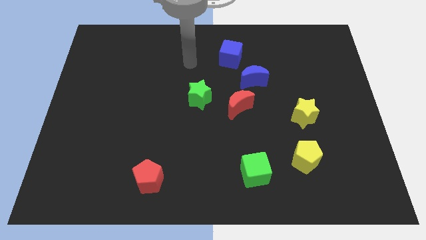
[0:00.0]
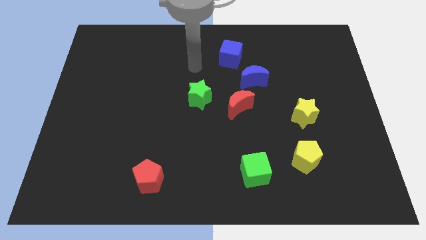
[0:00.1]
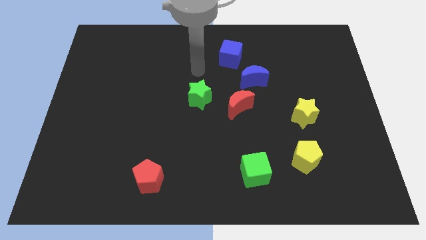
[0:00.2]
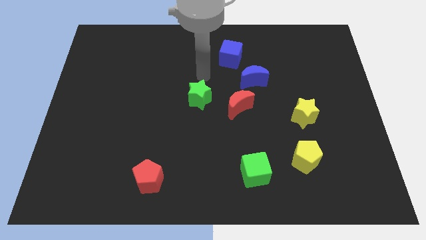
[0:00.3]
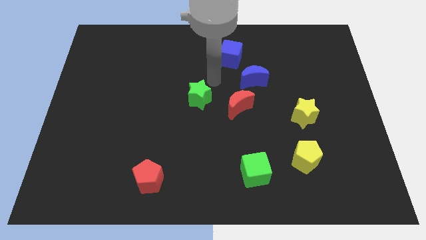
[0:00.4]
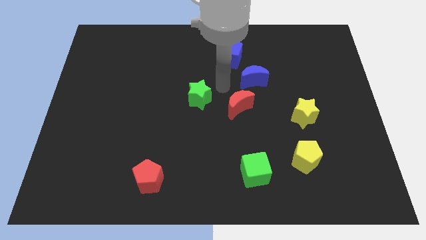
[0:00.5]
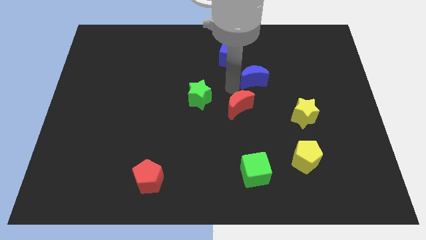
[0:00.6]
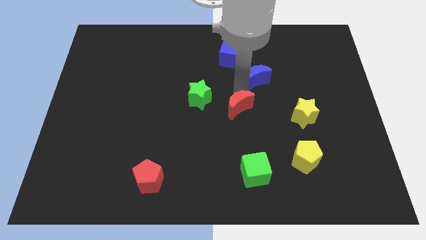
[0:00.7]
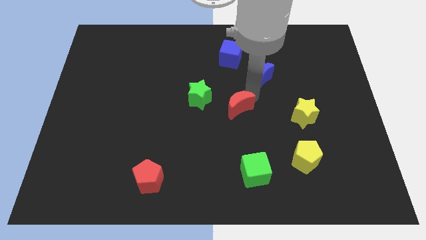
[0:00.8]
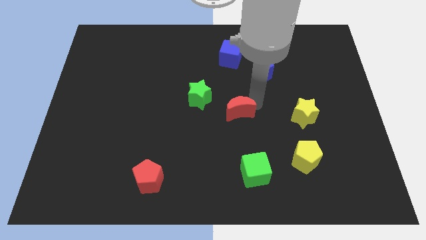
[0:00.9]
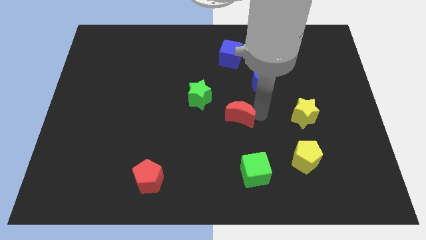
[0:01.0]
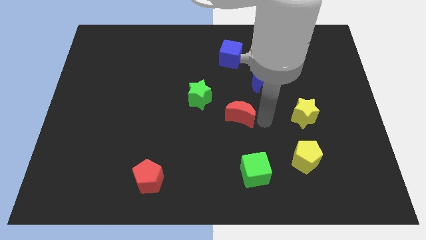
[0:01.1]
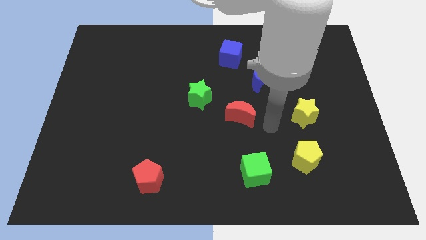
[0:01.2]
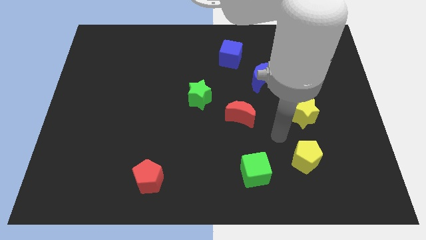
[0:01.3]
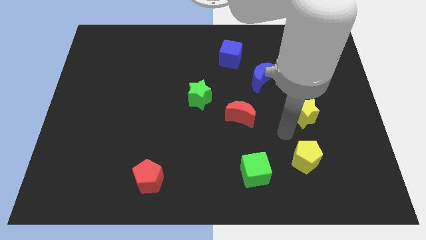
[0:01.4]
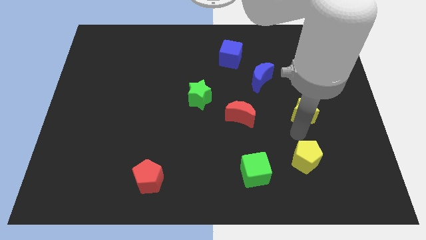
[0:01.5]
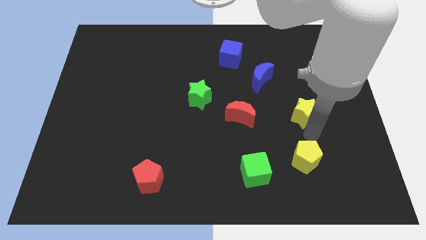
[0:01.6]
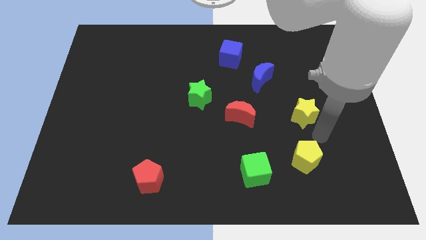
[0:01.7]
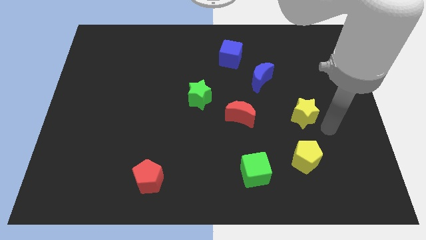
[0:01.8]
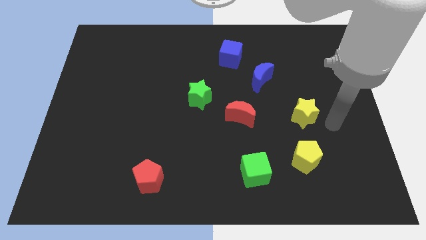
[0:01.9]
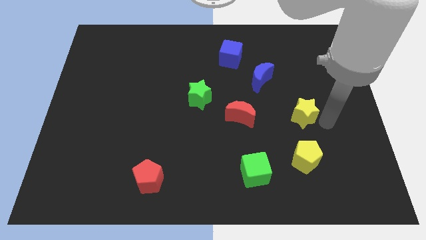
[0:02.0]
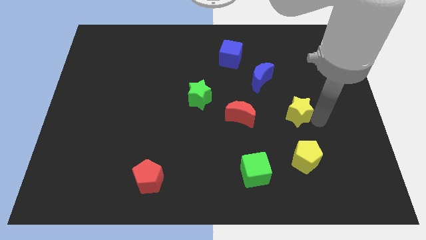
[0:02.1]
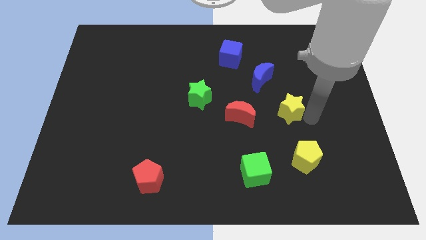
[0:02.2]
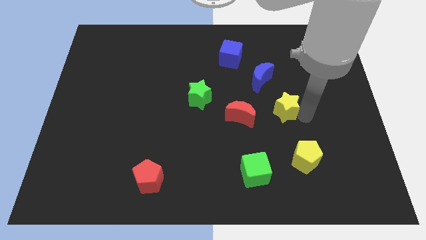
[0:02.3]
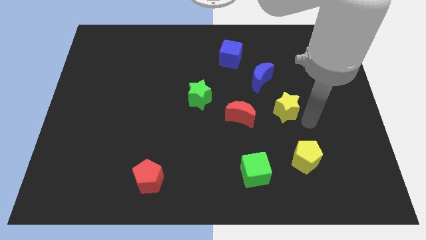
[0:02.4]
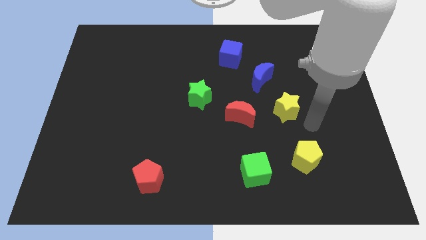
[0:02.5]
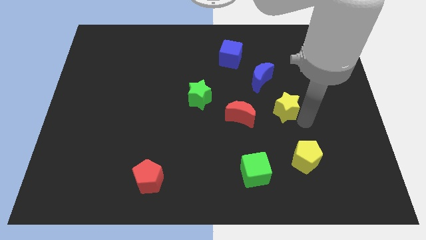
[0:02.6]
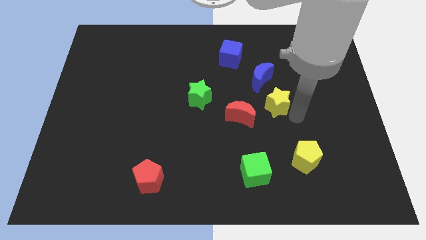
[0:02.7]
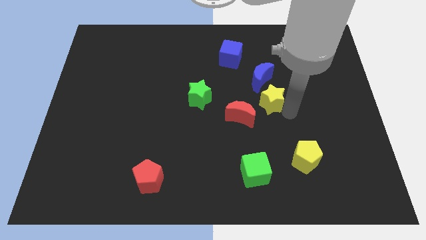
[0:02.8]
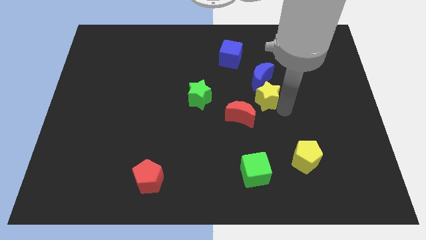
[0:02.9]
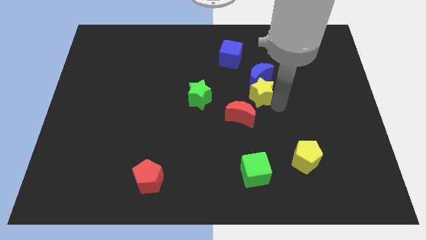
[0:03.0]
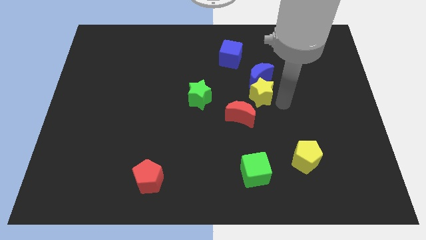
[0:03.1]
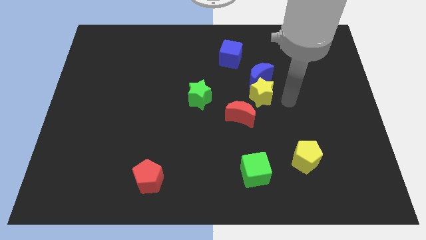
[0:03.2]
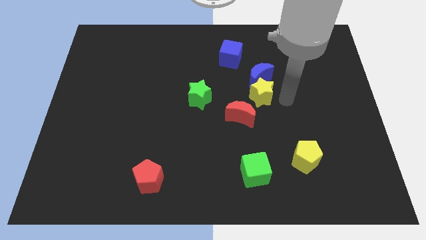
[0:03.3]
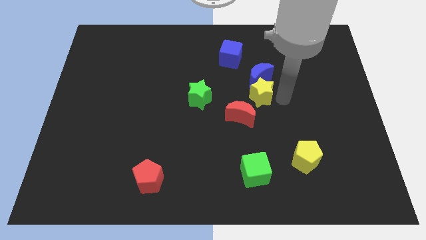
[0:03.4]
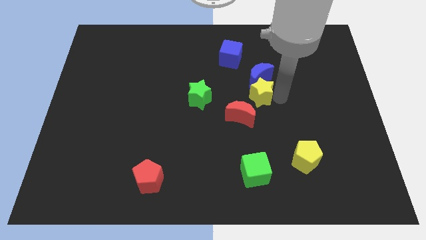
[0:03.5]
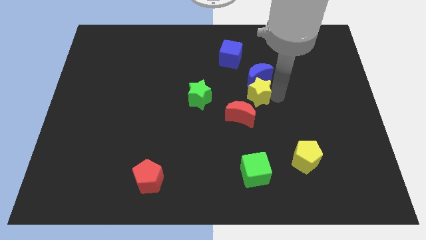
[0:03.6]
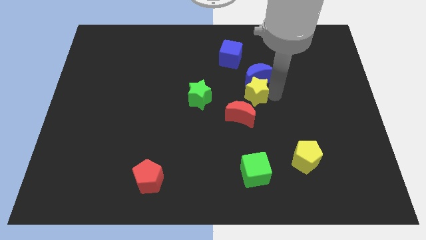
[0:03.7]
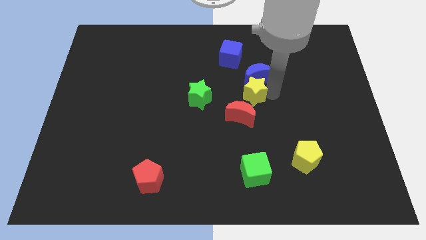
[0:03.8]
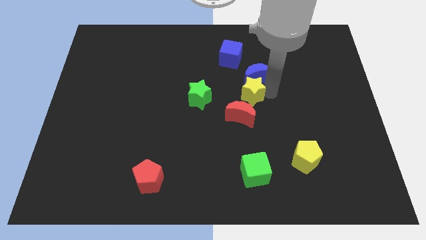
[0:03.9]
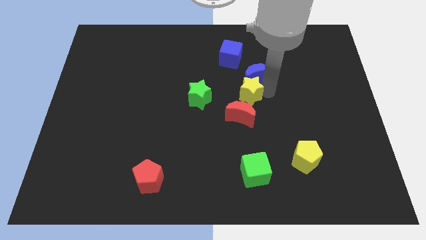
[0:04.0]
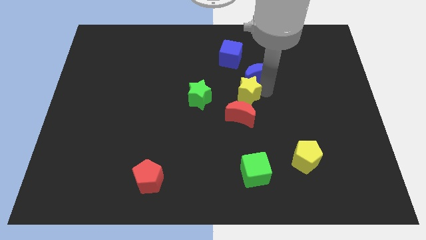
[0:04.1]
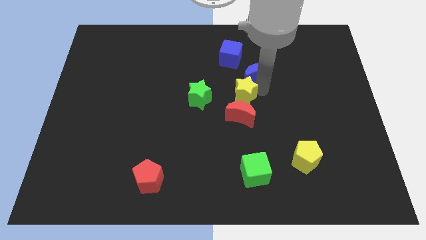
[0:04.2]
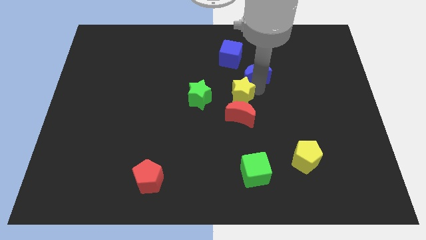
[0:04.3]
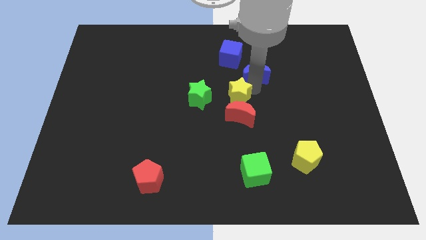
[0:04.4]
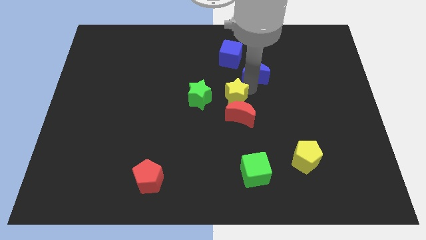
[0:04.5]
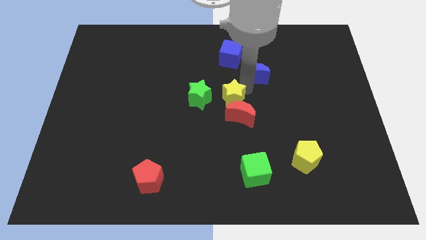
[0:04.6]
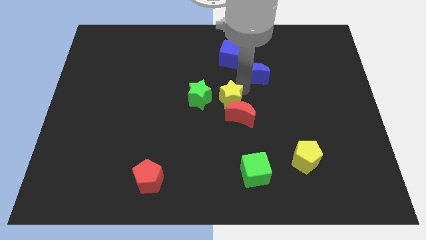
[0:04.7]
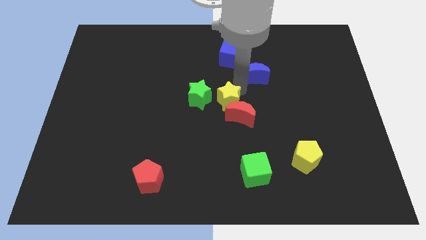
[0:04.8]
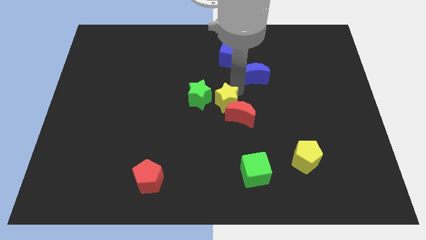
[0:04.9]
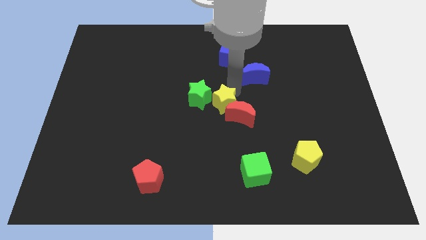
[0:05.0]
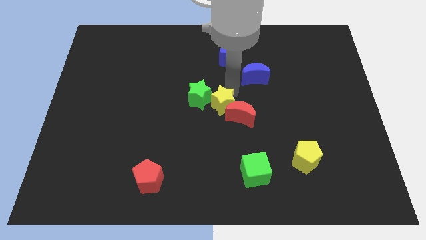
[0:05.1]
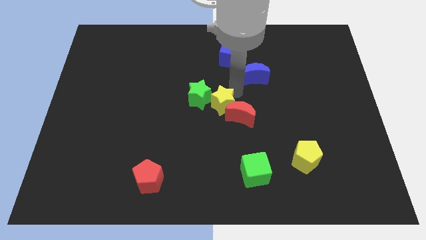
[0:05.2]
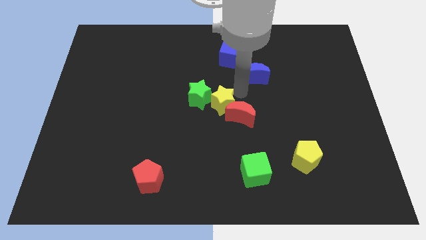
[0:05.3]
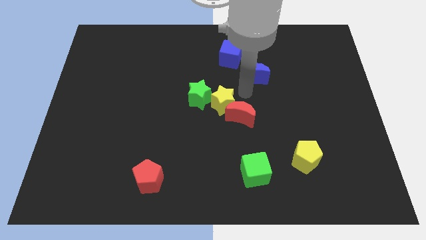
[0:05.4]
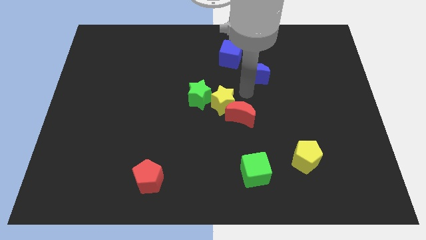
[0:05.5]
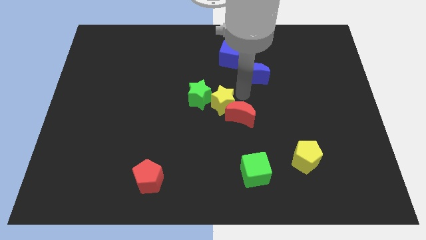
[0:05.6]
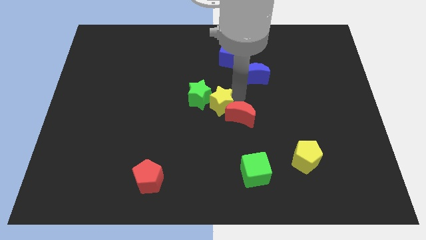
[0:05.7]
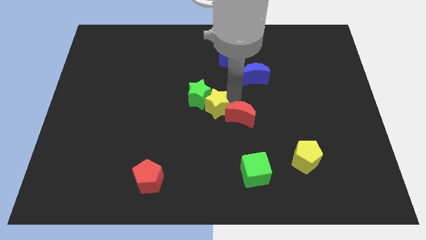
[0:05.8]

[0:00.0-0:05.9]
push the yellow star left

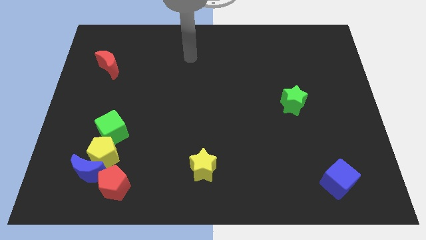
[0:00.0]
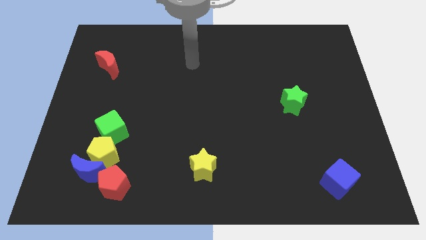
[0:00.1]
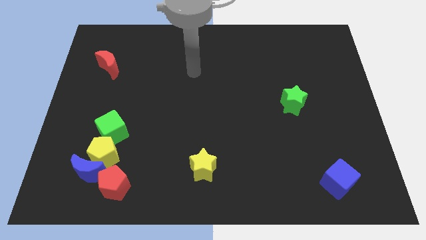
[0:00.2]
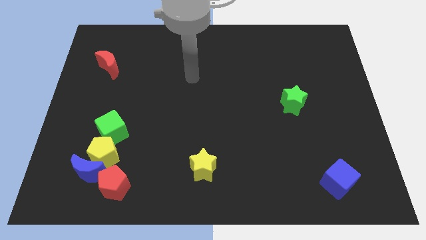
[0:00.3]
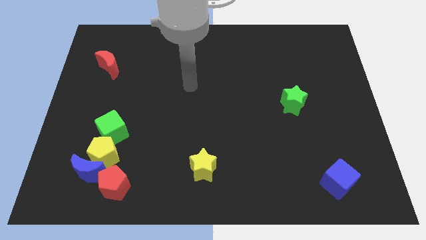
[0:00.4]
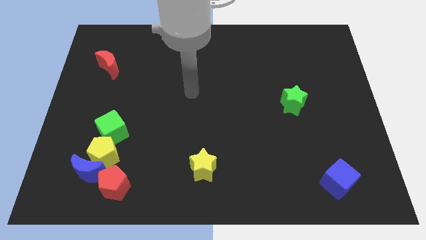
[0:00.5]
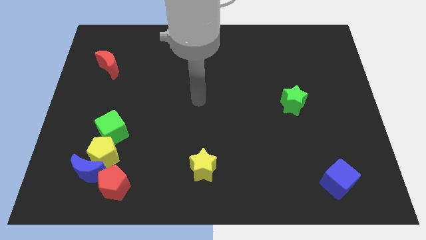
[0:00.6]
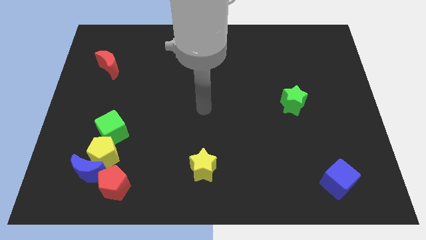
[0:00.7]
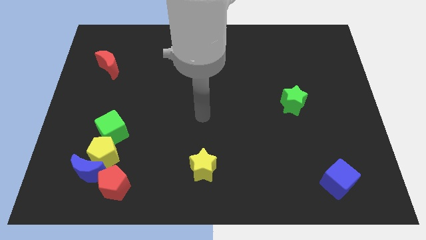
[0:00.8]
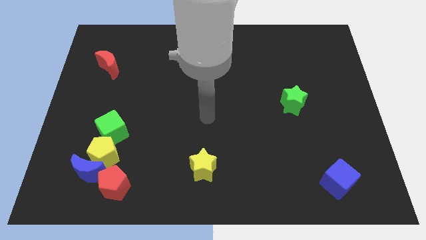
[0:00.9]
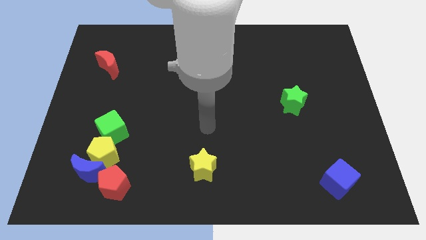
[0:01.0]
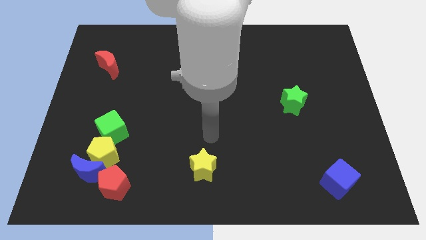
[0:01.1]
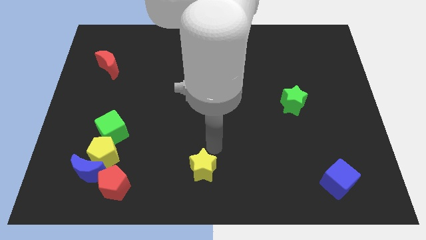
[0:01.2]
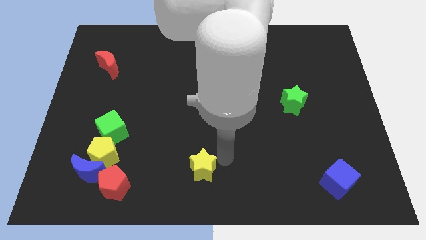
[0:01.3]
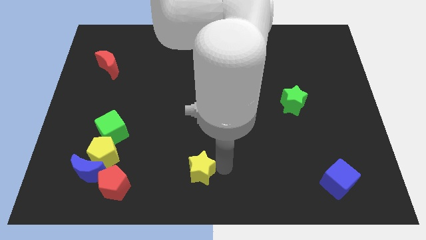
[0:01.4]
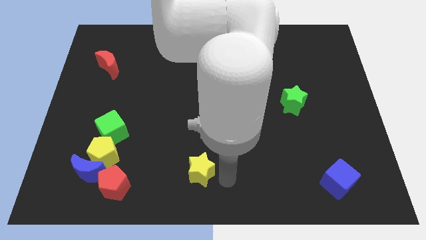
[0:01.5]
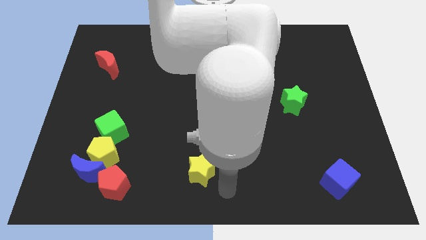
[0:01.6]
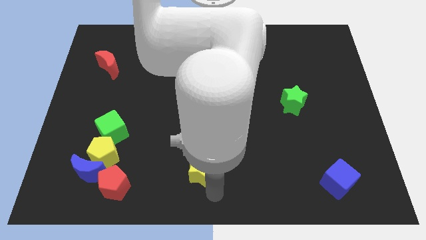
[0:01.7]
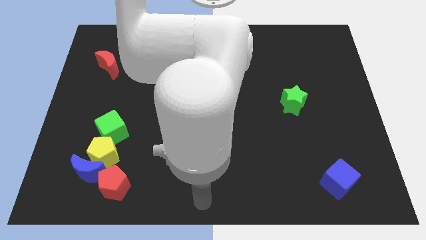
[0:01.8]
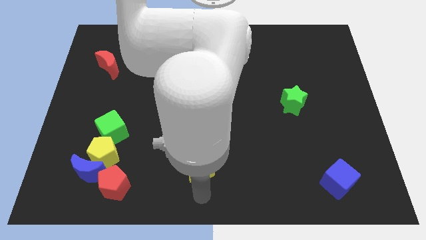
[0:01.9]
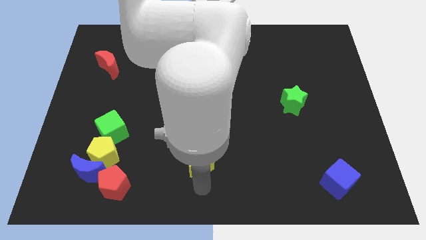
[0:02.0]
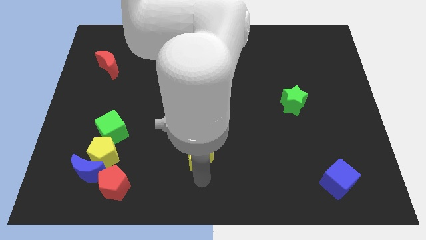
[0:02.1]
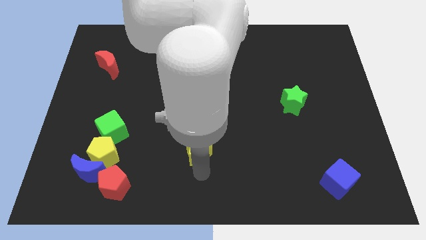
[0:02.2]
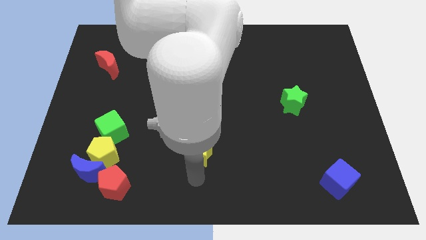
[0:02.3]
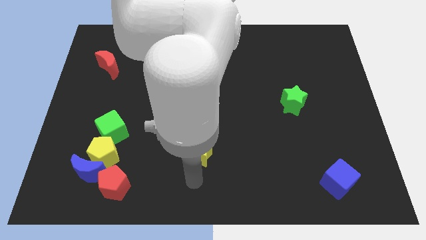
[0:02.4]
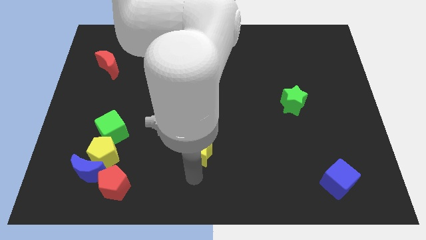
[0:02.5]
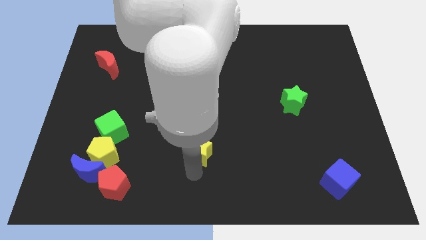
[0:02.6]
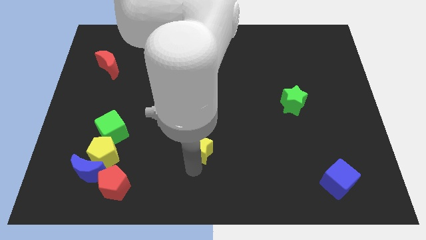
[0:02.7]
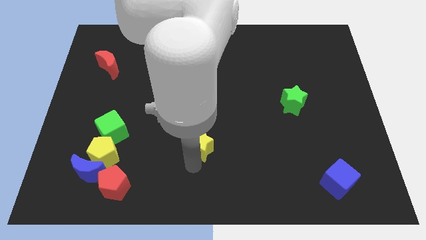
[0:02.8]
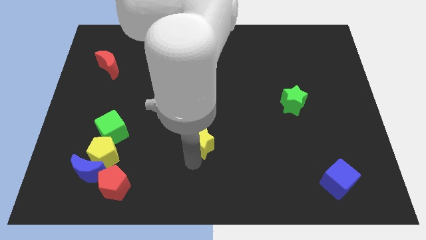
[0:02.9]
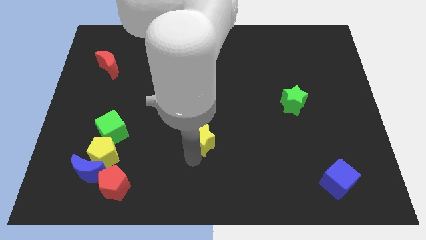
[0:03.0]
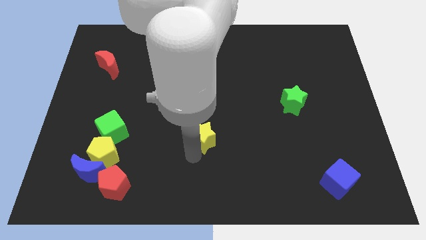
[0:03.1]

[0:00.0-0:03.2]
slide the yellow star upwards slightly
